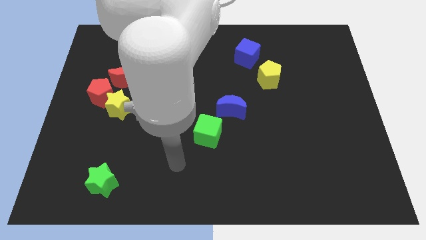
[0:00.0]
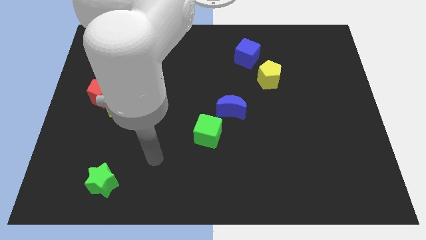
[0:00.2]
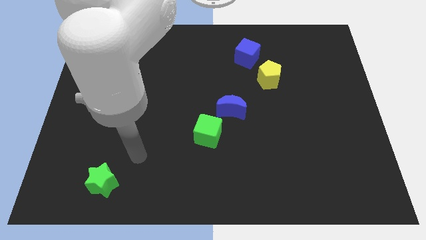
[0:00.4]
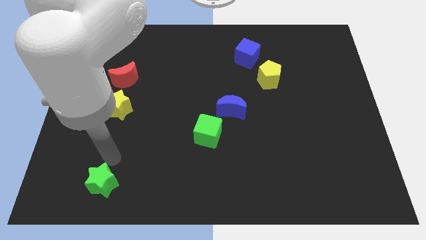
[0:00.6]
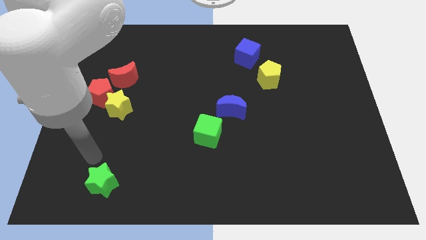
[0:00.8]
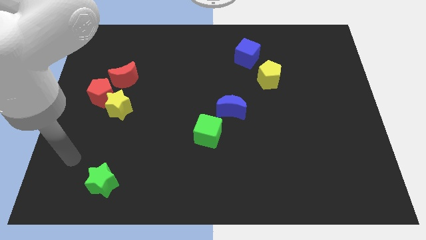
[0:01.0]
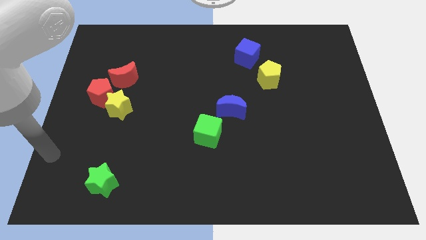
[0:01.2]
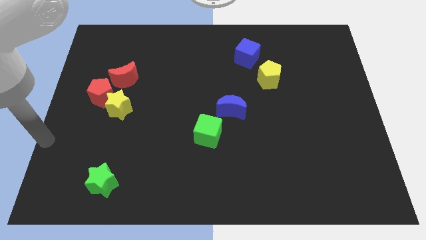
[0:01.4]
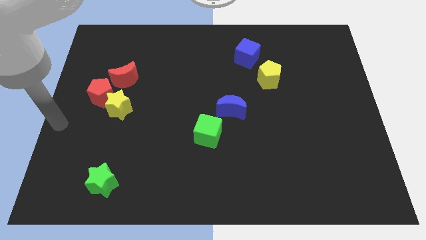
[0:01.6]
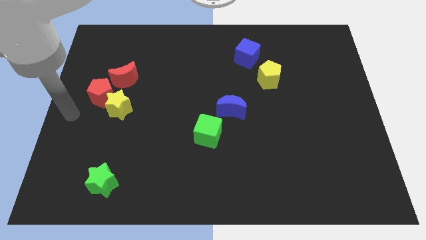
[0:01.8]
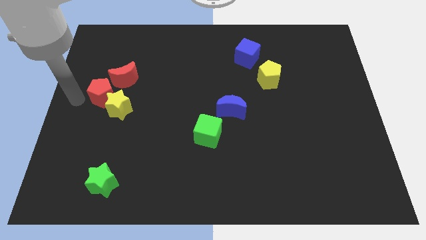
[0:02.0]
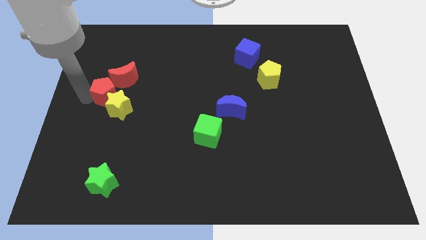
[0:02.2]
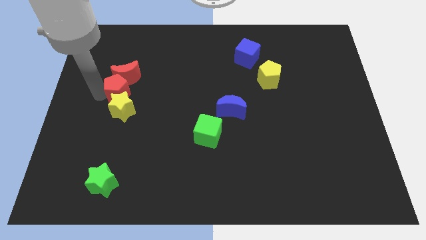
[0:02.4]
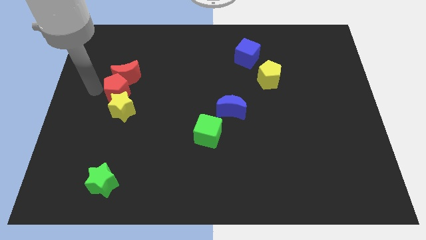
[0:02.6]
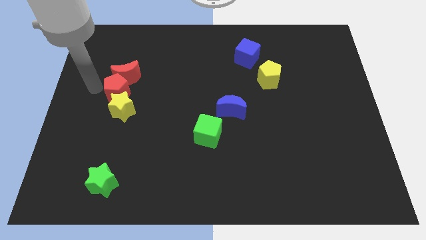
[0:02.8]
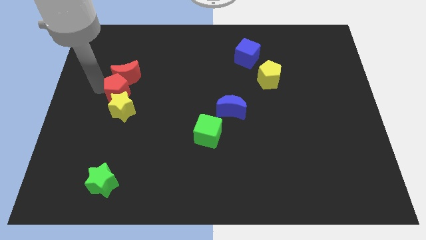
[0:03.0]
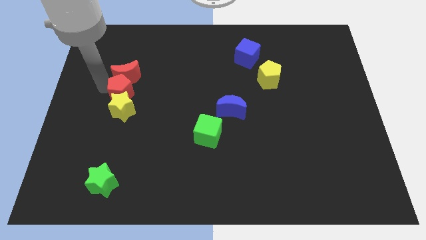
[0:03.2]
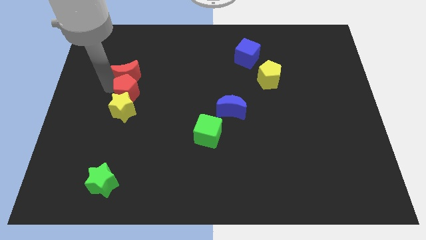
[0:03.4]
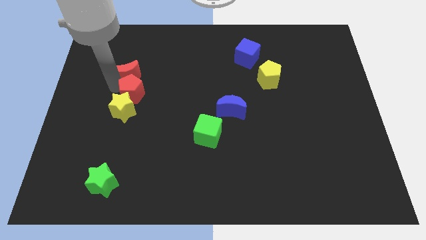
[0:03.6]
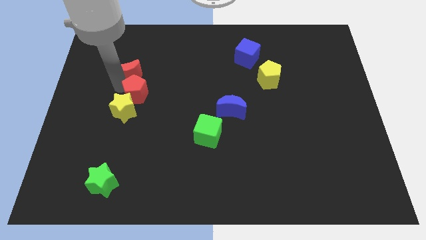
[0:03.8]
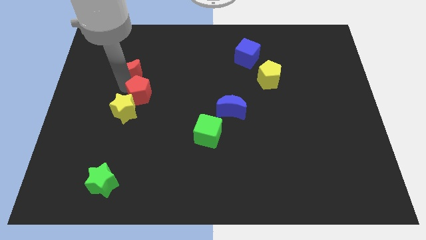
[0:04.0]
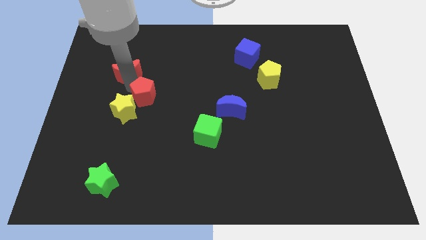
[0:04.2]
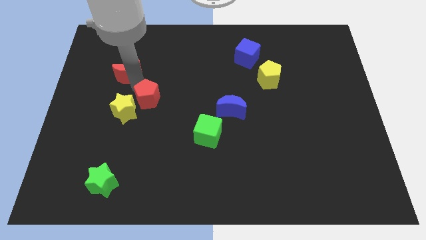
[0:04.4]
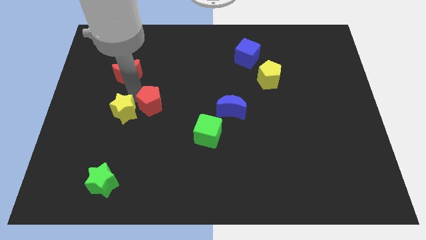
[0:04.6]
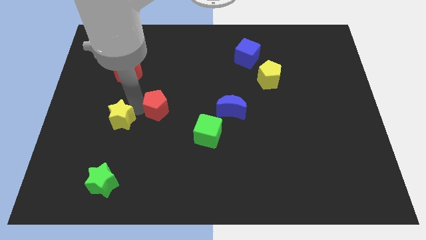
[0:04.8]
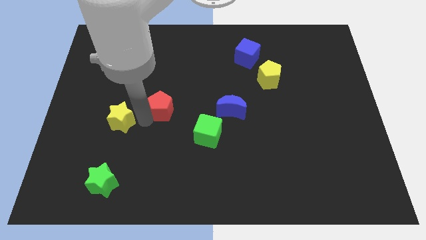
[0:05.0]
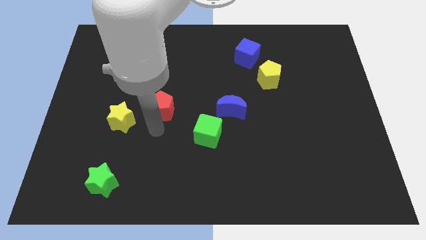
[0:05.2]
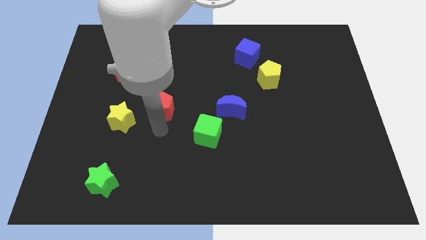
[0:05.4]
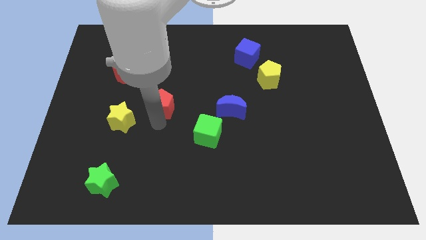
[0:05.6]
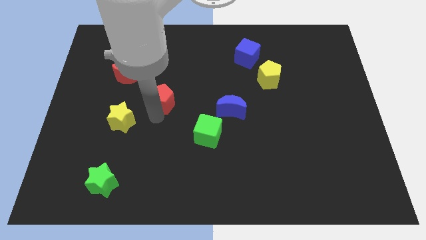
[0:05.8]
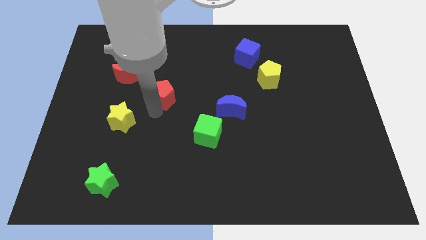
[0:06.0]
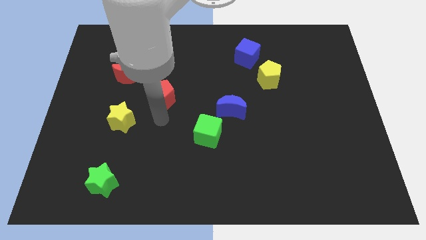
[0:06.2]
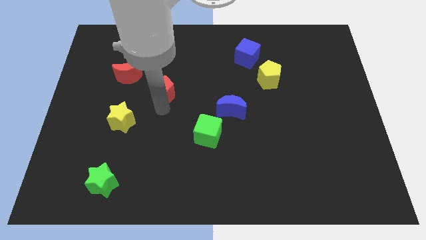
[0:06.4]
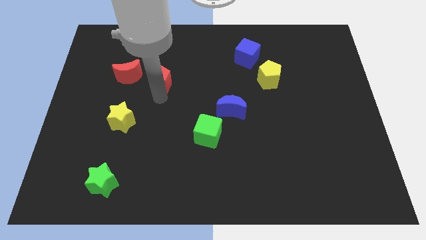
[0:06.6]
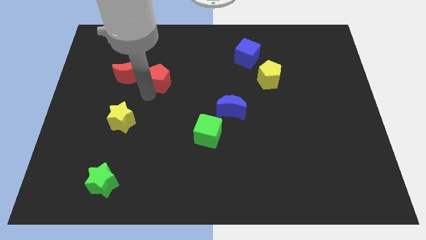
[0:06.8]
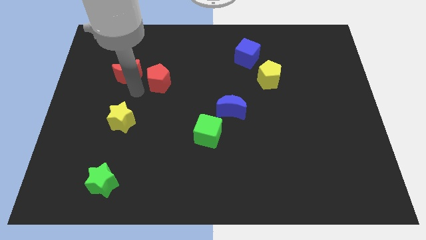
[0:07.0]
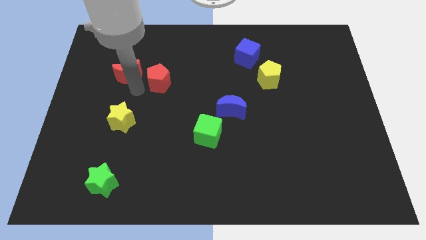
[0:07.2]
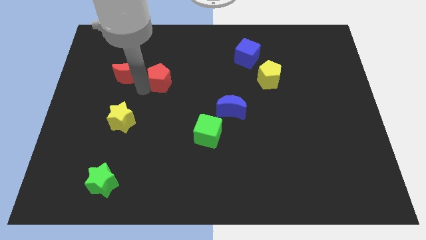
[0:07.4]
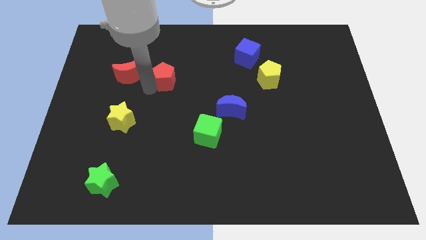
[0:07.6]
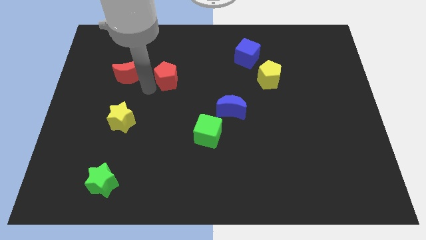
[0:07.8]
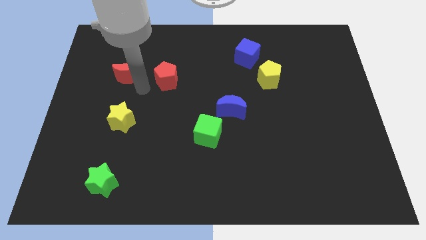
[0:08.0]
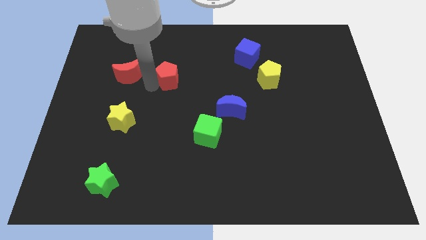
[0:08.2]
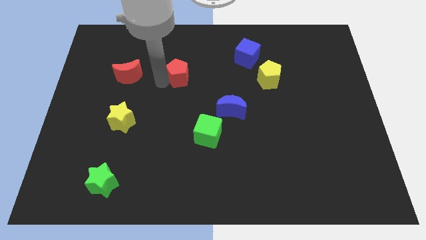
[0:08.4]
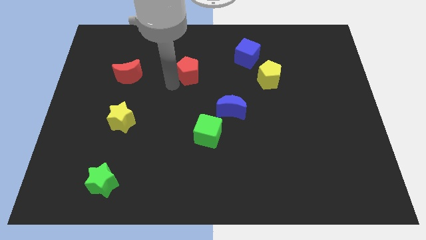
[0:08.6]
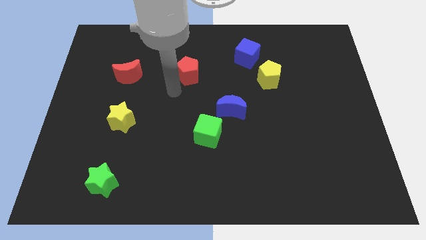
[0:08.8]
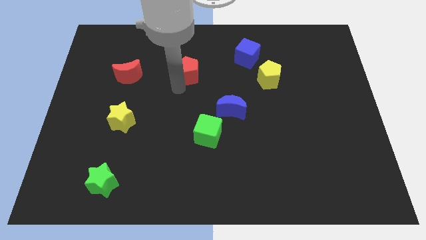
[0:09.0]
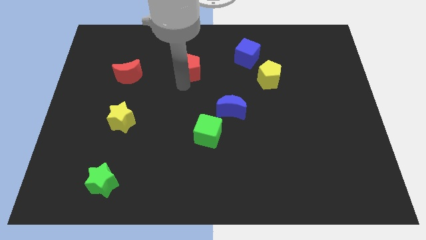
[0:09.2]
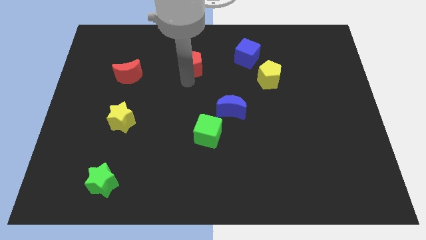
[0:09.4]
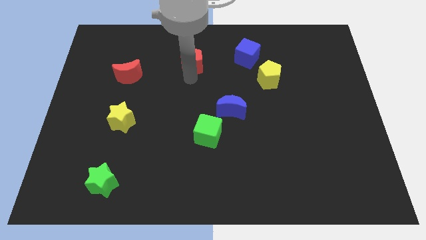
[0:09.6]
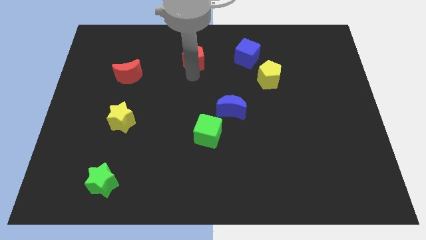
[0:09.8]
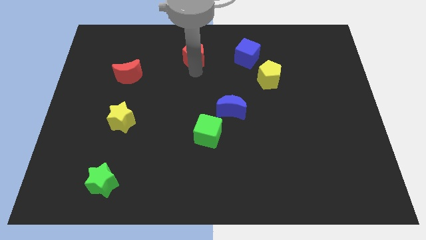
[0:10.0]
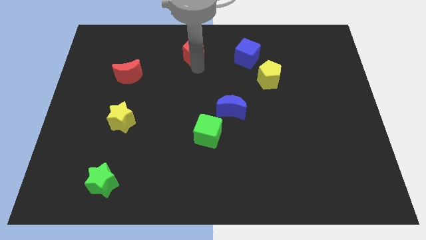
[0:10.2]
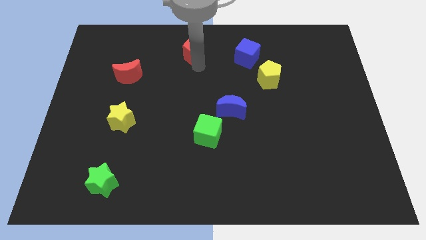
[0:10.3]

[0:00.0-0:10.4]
slide the red pentagon to the top

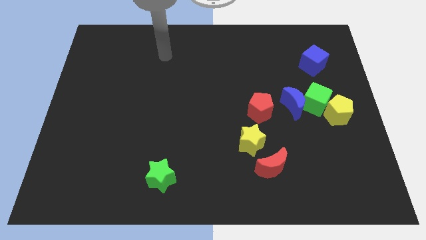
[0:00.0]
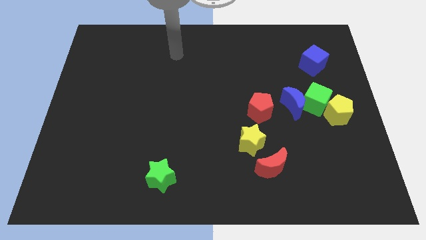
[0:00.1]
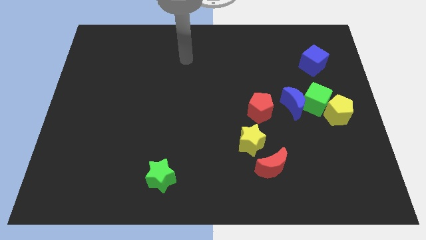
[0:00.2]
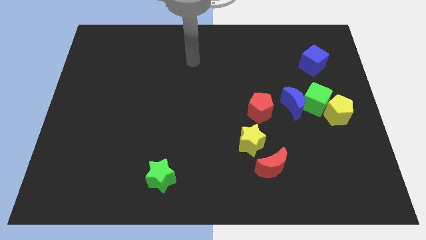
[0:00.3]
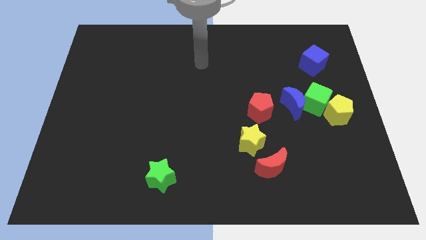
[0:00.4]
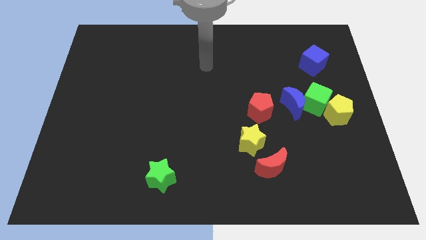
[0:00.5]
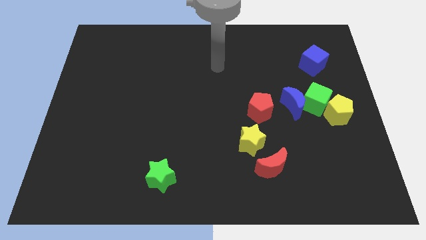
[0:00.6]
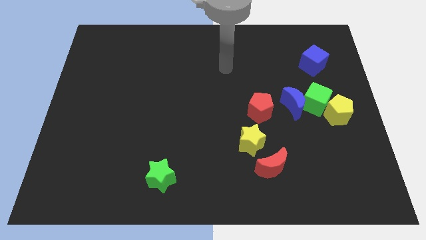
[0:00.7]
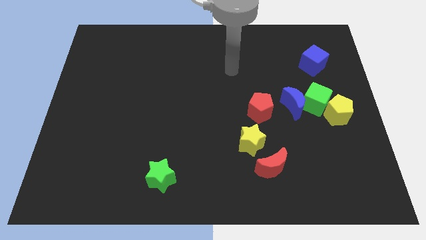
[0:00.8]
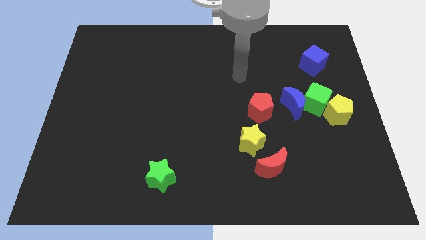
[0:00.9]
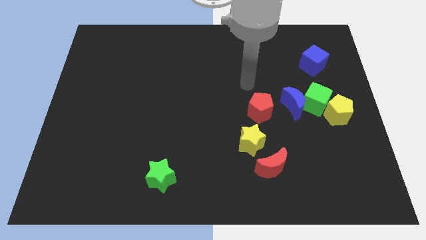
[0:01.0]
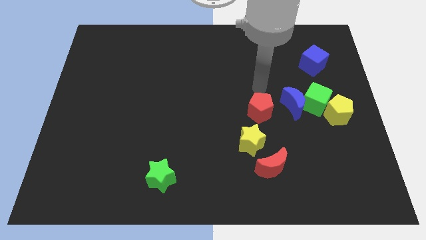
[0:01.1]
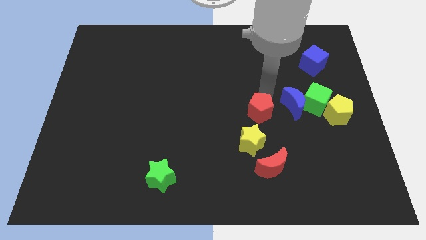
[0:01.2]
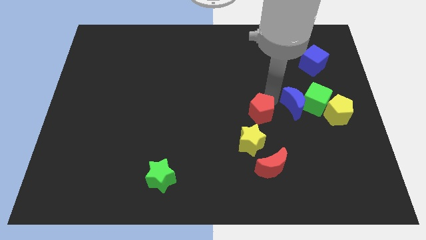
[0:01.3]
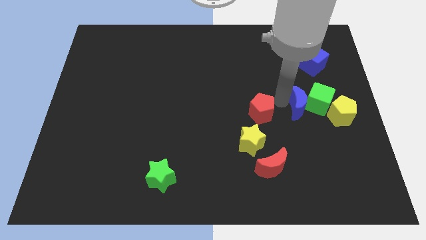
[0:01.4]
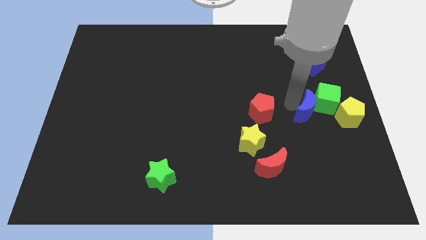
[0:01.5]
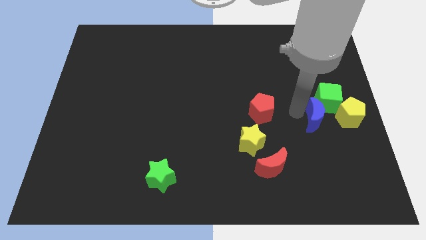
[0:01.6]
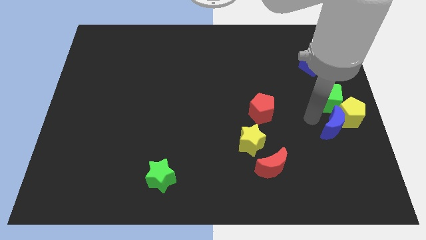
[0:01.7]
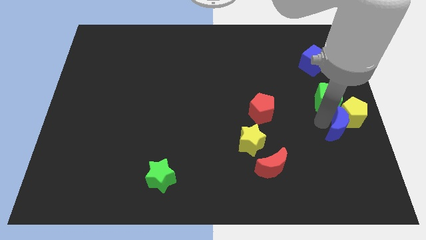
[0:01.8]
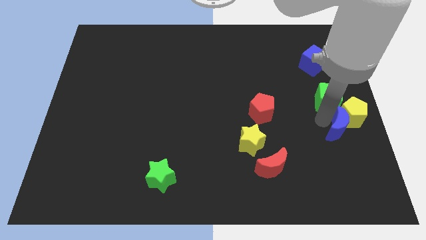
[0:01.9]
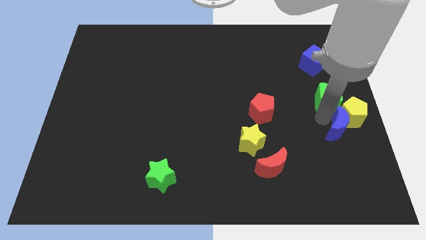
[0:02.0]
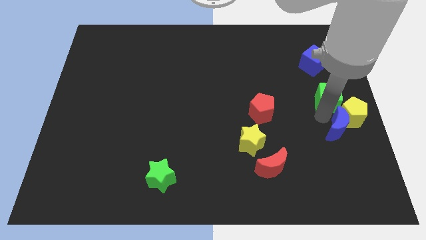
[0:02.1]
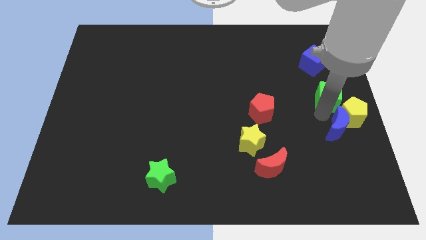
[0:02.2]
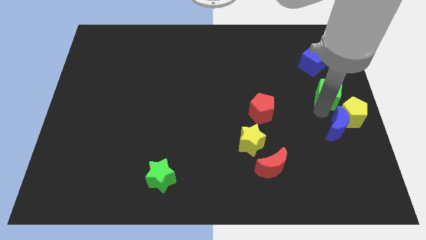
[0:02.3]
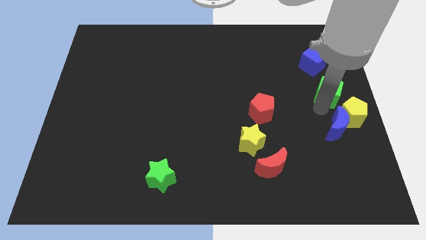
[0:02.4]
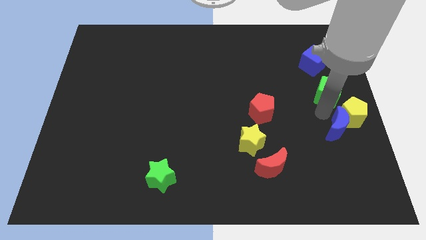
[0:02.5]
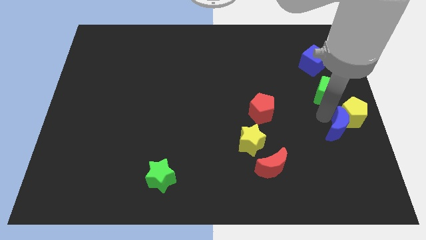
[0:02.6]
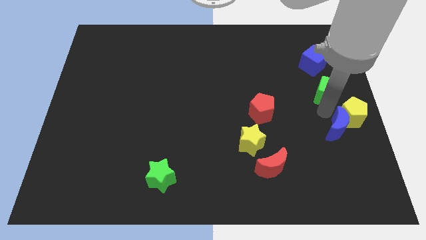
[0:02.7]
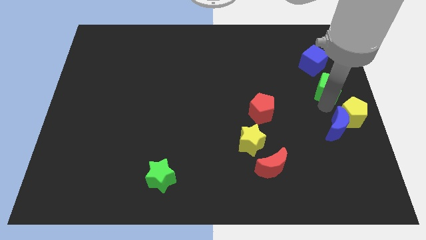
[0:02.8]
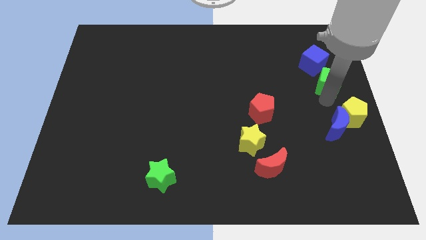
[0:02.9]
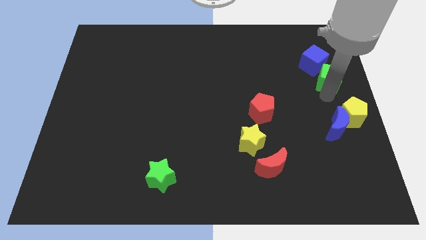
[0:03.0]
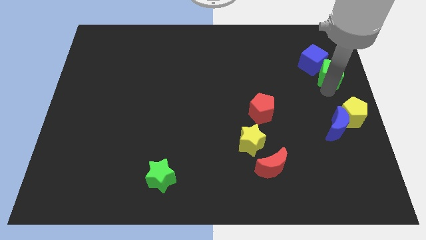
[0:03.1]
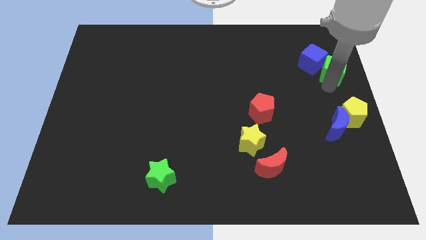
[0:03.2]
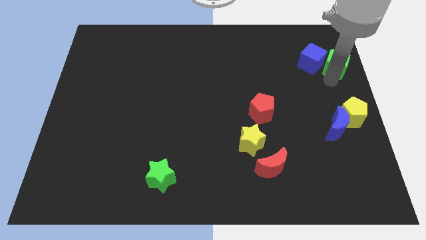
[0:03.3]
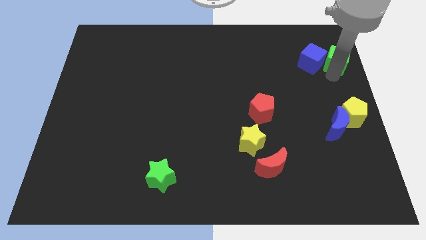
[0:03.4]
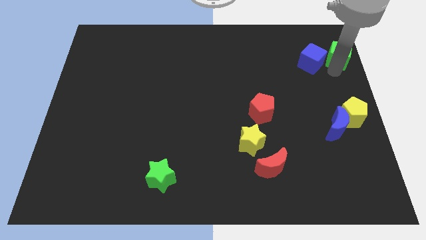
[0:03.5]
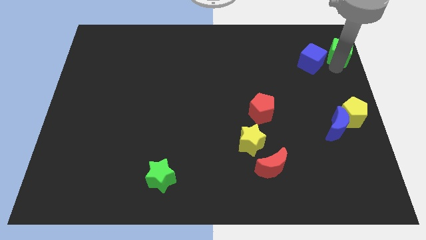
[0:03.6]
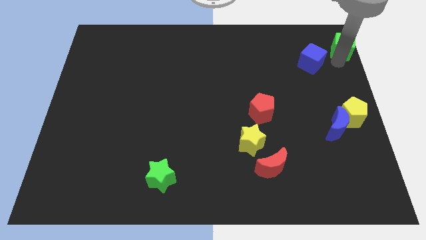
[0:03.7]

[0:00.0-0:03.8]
put the green cube to the top right corner
